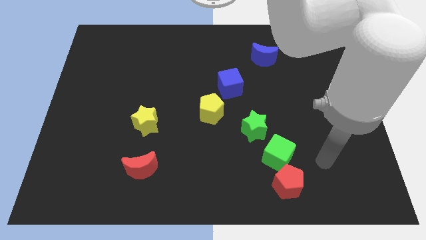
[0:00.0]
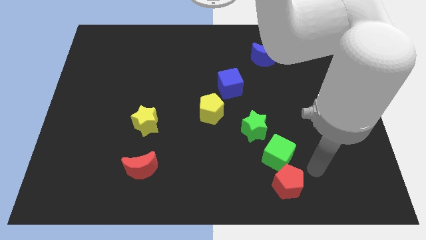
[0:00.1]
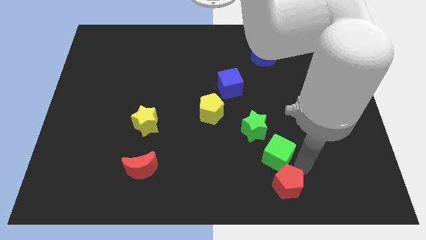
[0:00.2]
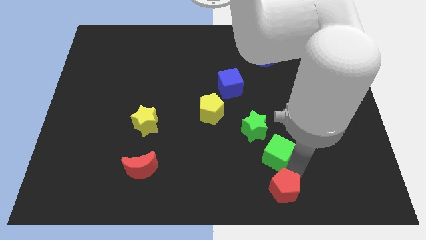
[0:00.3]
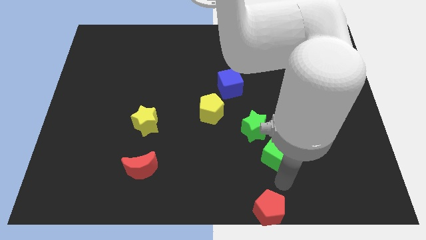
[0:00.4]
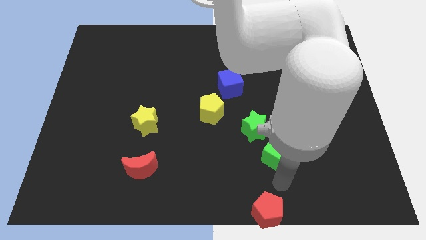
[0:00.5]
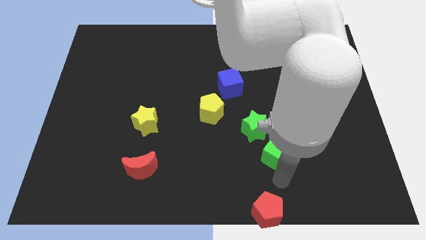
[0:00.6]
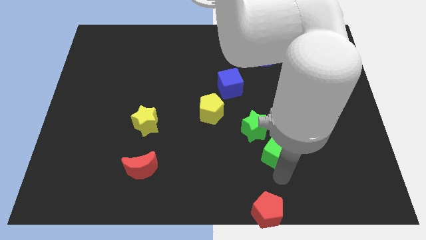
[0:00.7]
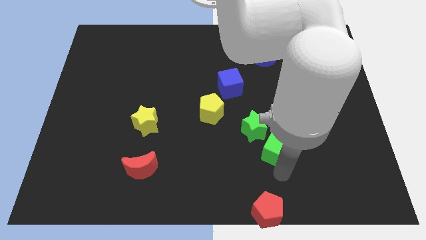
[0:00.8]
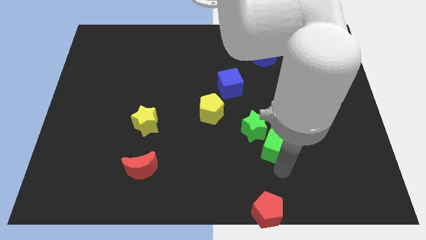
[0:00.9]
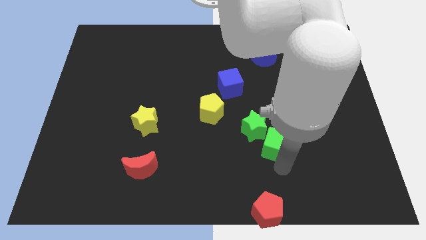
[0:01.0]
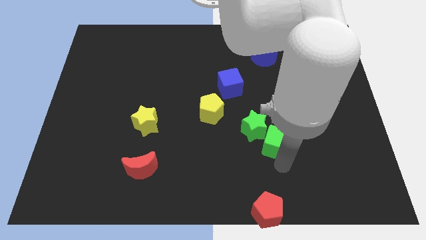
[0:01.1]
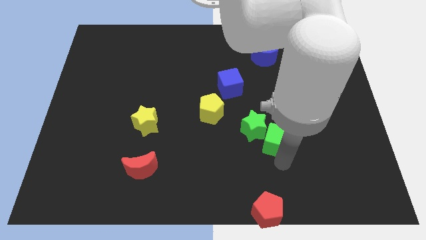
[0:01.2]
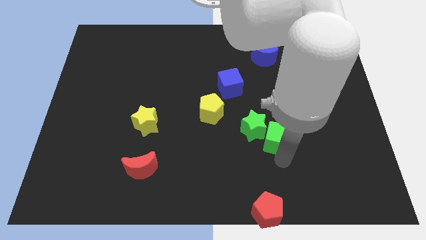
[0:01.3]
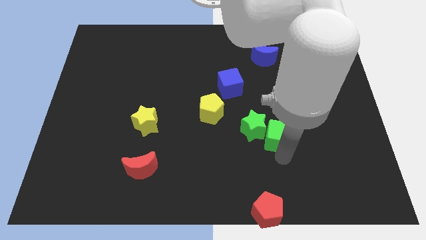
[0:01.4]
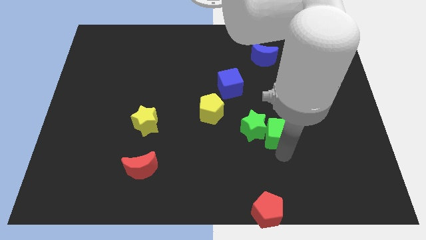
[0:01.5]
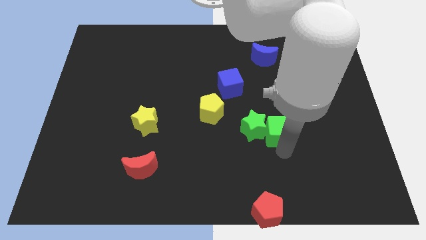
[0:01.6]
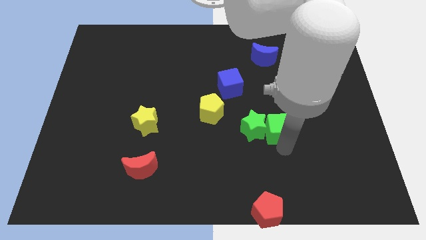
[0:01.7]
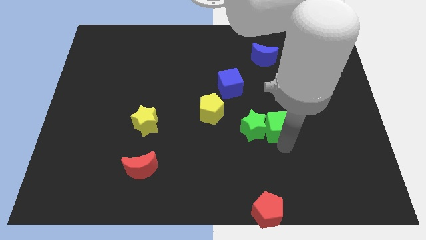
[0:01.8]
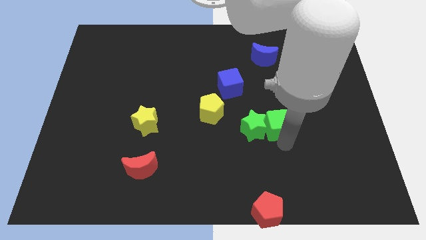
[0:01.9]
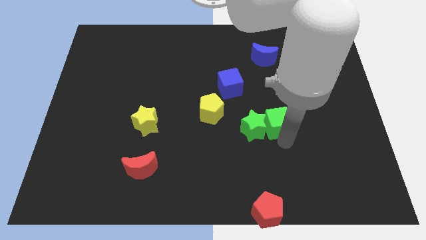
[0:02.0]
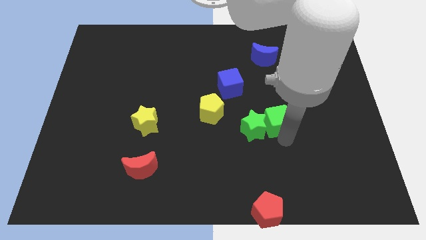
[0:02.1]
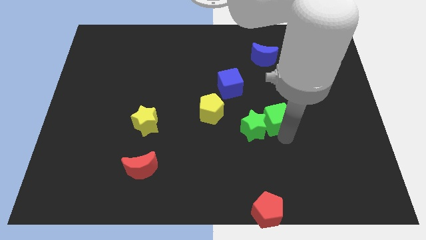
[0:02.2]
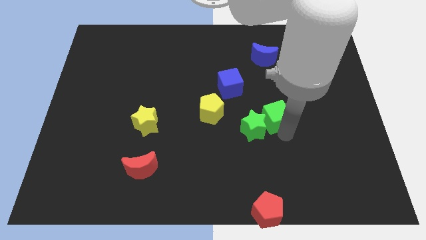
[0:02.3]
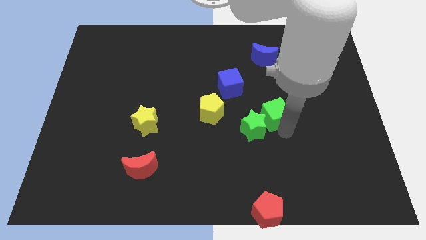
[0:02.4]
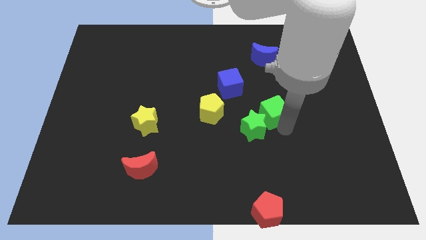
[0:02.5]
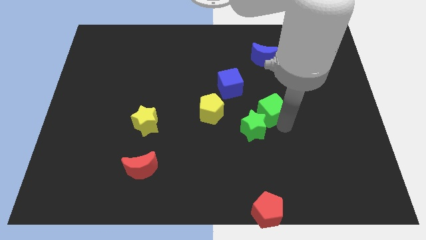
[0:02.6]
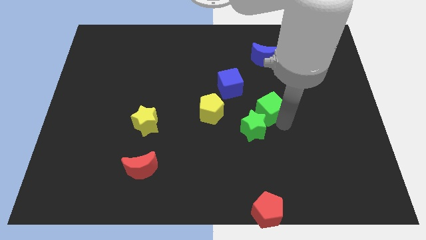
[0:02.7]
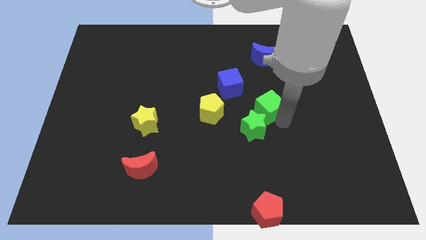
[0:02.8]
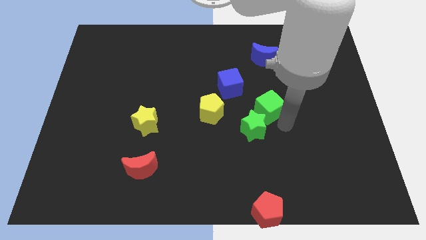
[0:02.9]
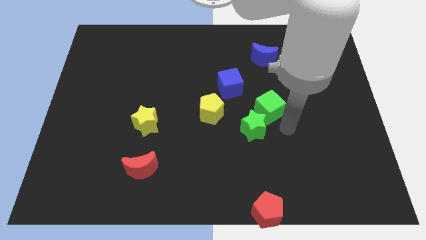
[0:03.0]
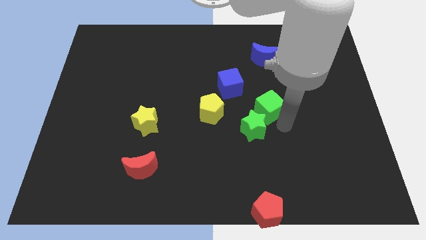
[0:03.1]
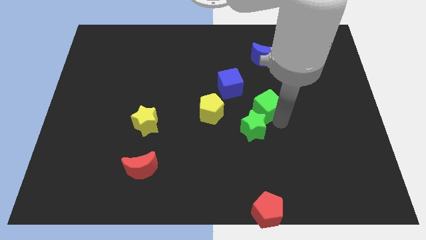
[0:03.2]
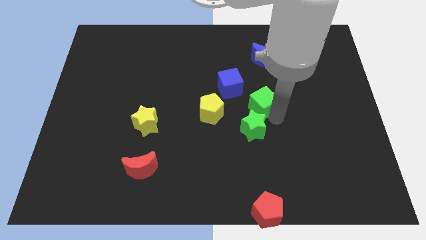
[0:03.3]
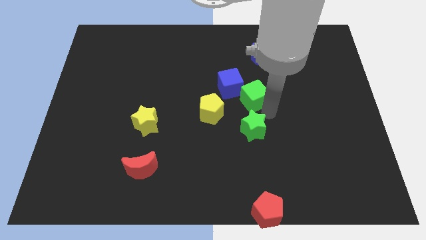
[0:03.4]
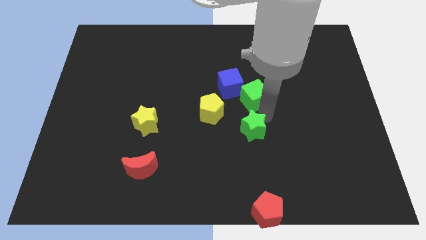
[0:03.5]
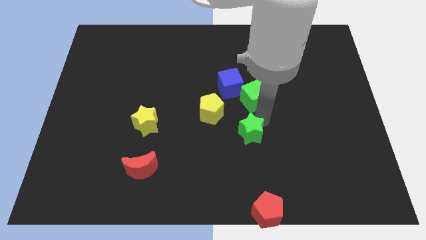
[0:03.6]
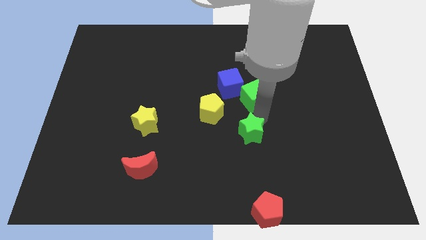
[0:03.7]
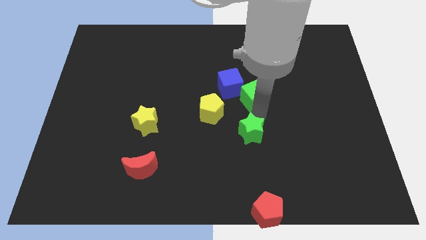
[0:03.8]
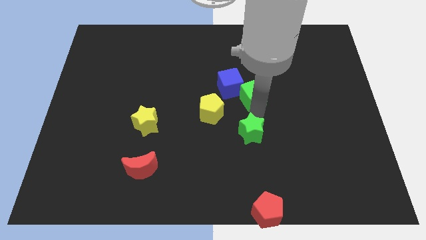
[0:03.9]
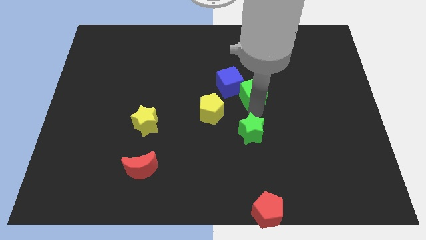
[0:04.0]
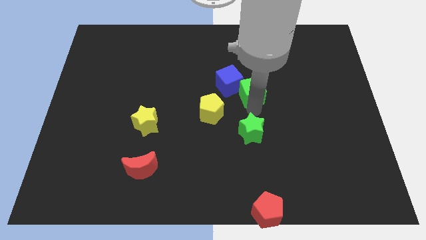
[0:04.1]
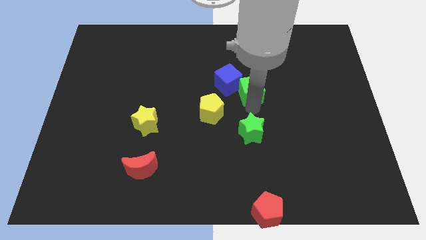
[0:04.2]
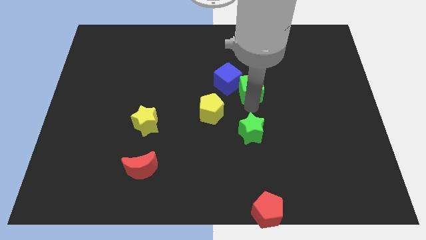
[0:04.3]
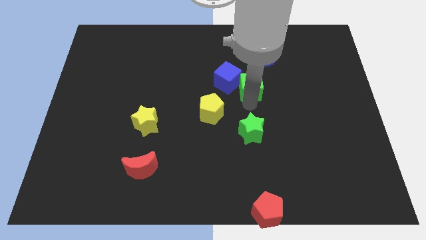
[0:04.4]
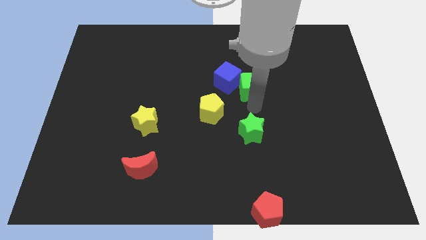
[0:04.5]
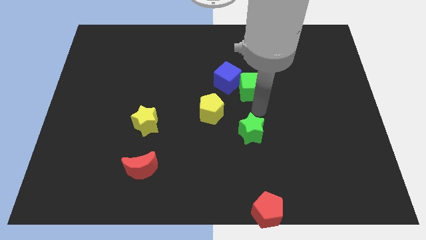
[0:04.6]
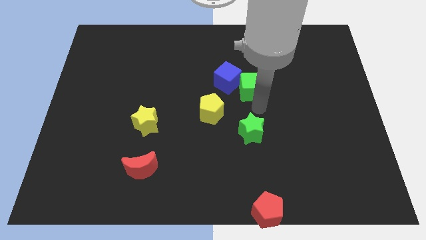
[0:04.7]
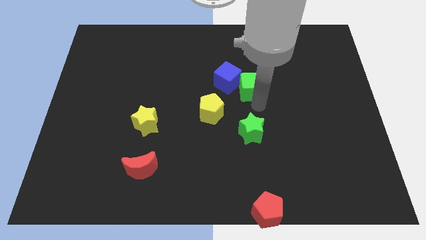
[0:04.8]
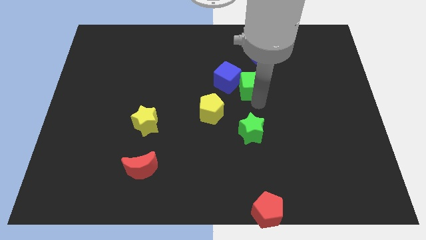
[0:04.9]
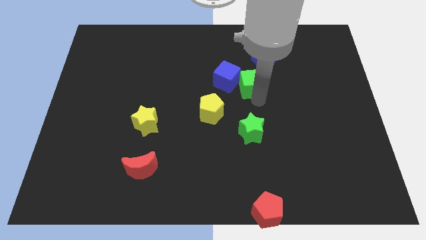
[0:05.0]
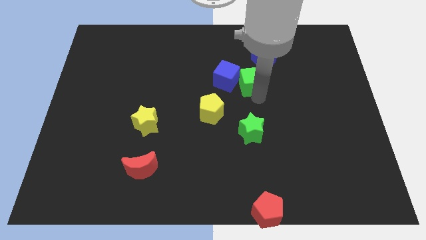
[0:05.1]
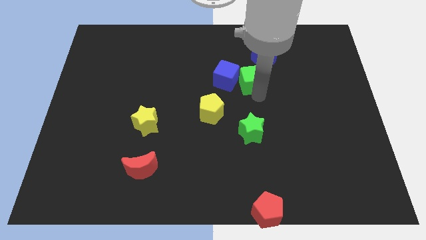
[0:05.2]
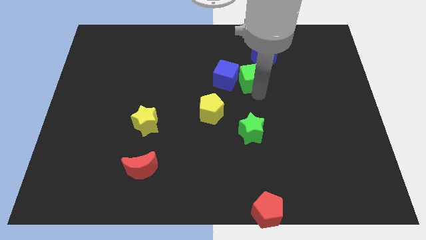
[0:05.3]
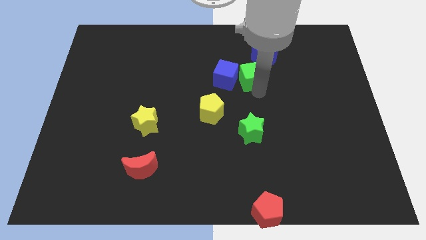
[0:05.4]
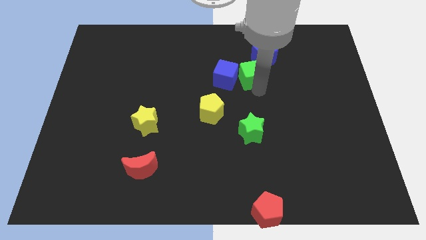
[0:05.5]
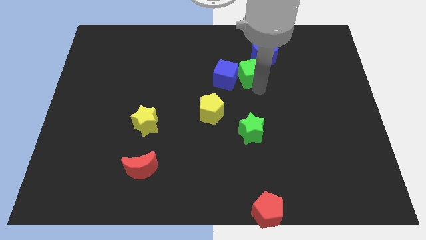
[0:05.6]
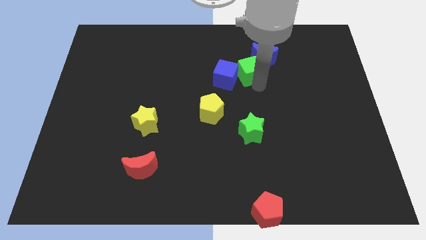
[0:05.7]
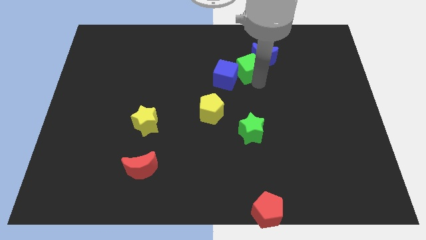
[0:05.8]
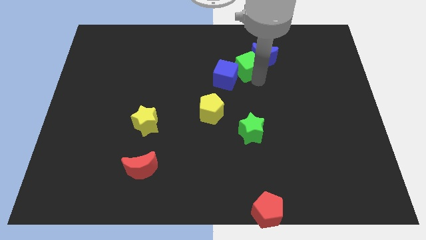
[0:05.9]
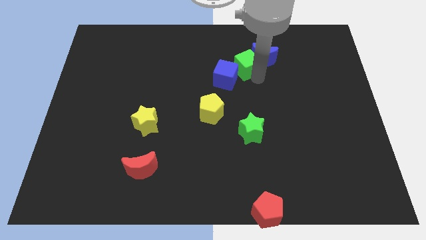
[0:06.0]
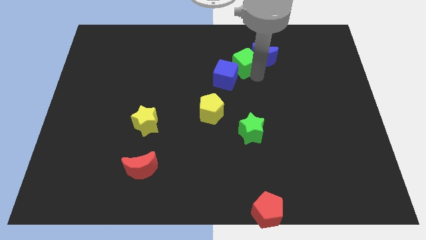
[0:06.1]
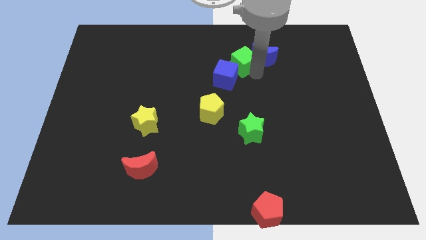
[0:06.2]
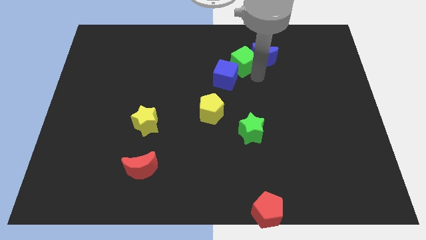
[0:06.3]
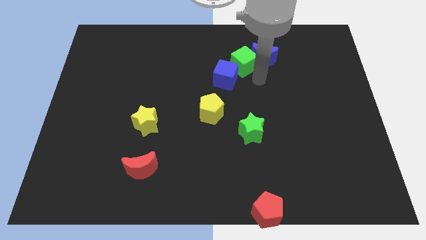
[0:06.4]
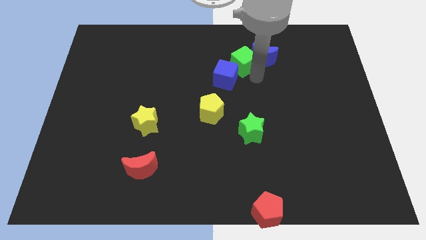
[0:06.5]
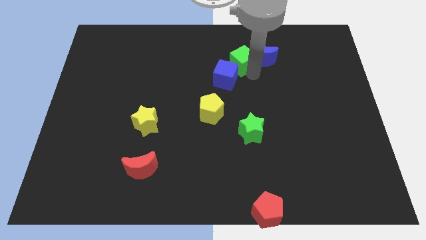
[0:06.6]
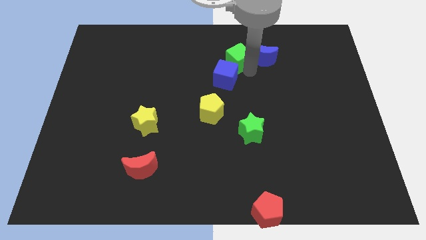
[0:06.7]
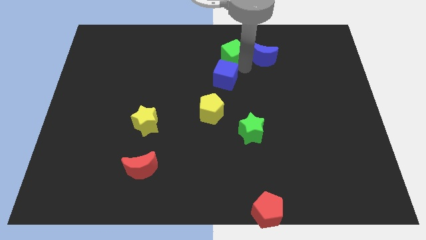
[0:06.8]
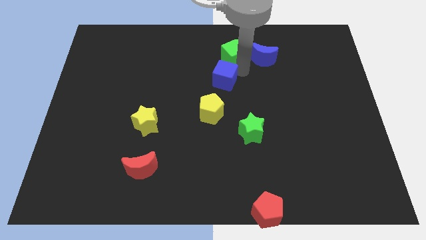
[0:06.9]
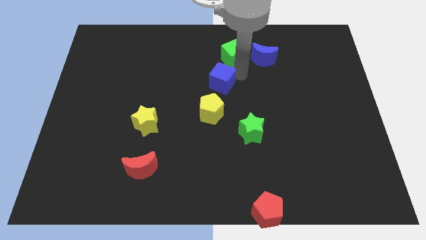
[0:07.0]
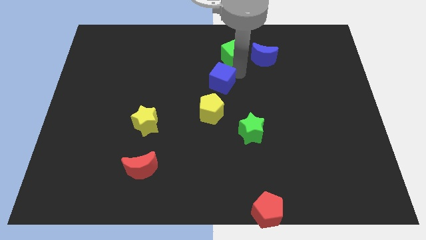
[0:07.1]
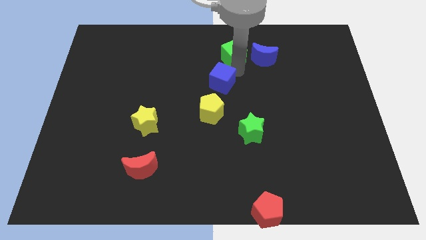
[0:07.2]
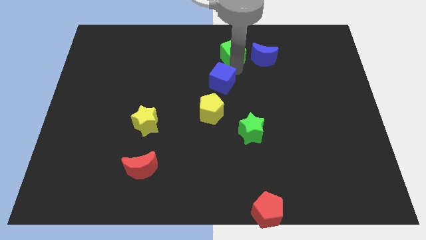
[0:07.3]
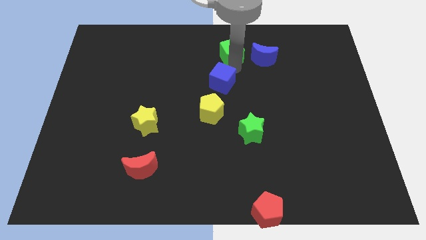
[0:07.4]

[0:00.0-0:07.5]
put the green cube to the top
